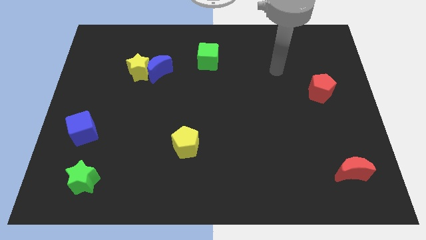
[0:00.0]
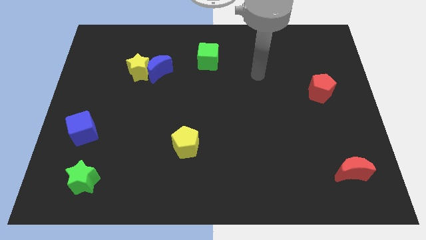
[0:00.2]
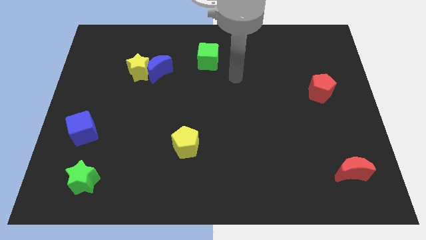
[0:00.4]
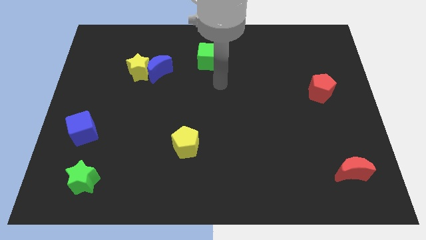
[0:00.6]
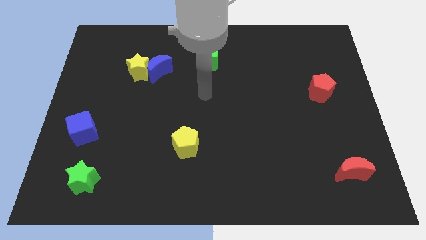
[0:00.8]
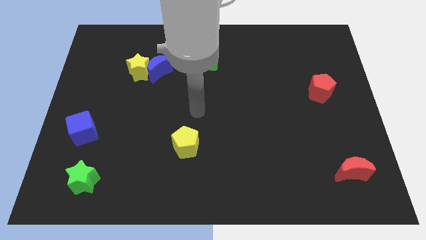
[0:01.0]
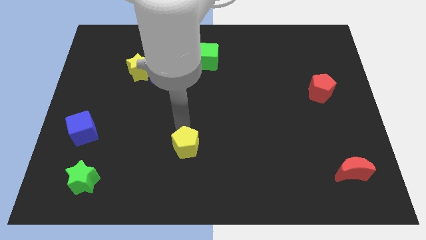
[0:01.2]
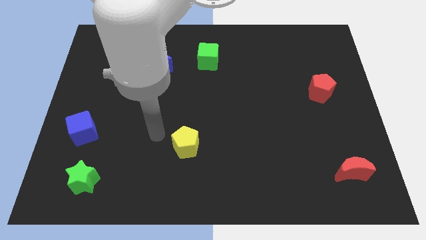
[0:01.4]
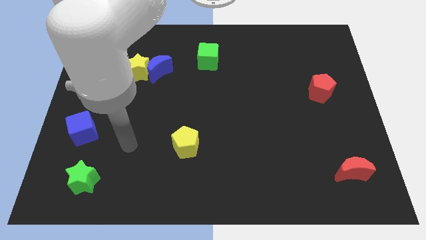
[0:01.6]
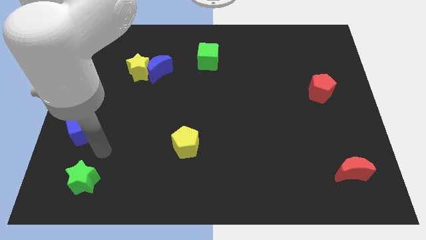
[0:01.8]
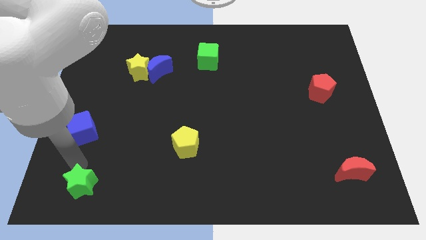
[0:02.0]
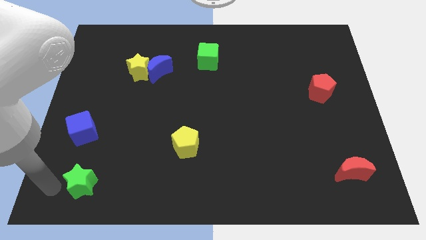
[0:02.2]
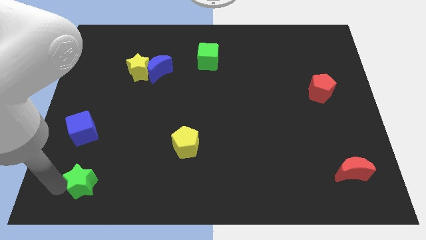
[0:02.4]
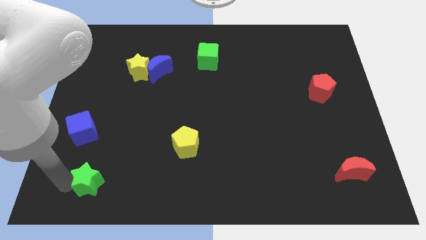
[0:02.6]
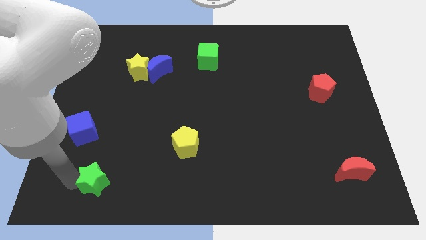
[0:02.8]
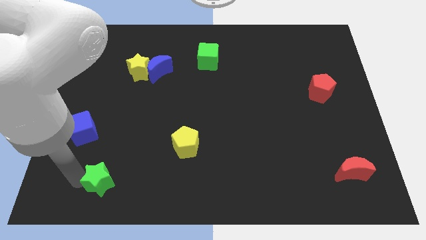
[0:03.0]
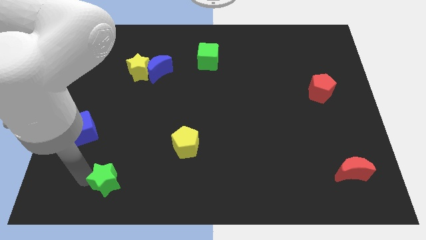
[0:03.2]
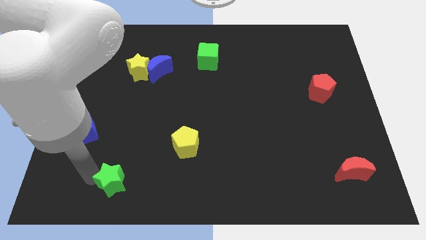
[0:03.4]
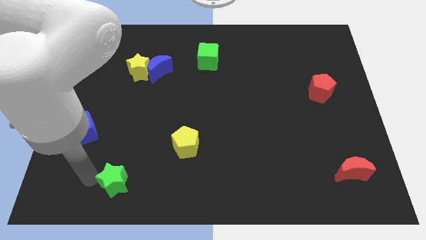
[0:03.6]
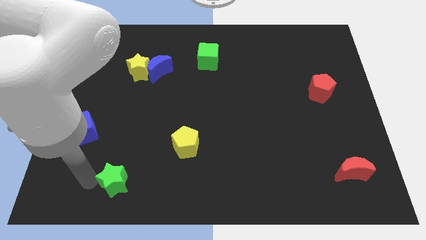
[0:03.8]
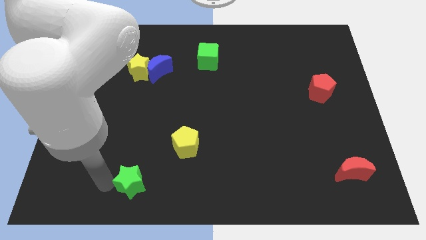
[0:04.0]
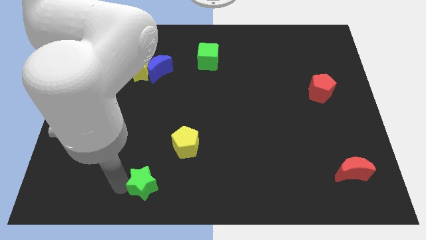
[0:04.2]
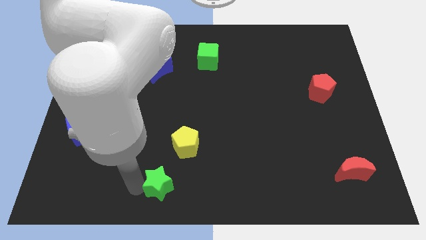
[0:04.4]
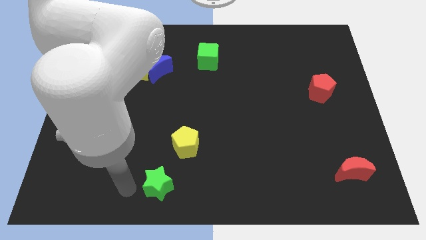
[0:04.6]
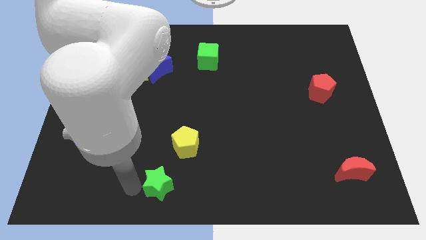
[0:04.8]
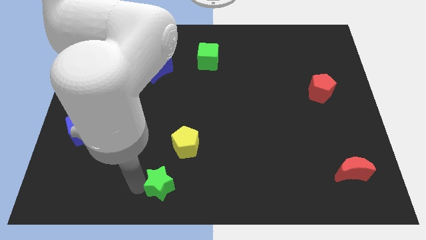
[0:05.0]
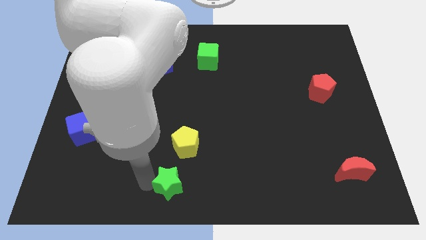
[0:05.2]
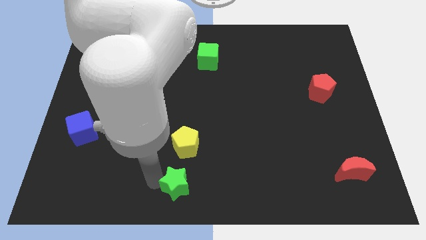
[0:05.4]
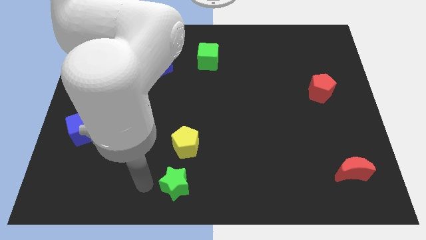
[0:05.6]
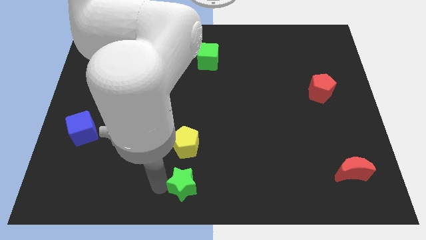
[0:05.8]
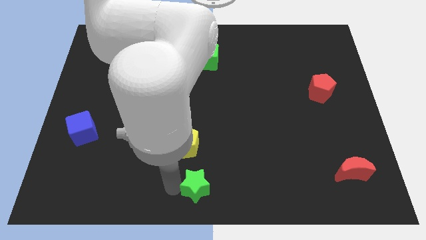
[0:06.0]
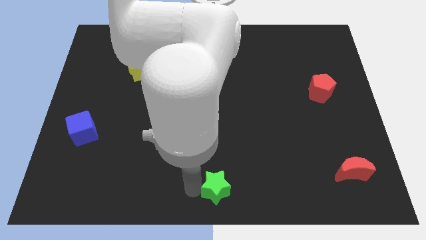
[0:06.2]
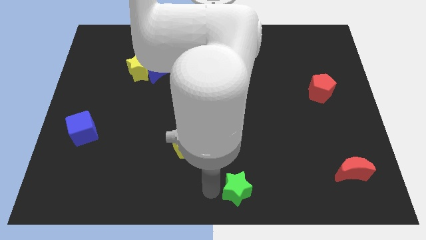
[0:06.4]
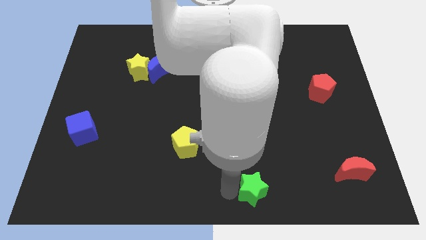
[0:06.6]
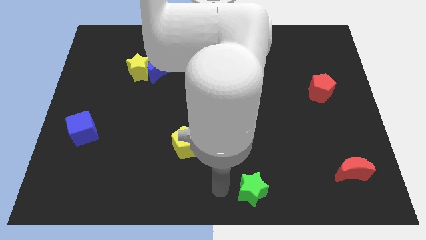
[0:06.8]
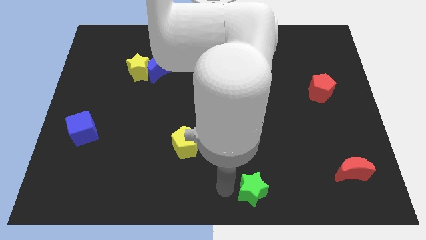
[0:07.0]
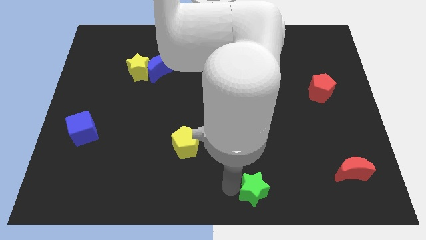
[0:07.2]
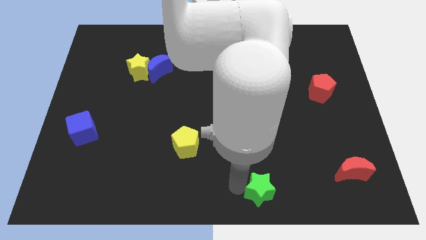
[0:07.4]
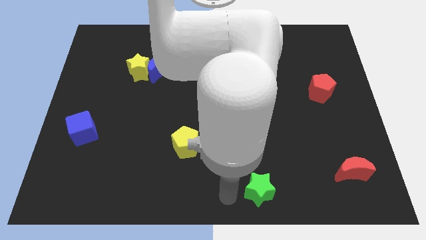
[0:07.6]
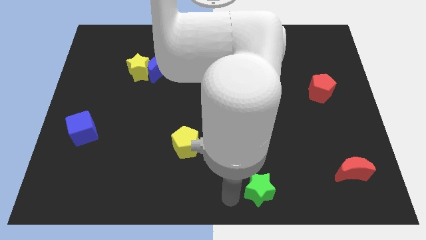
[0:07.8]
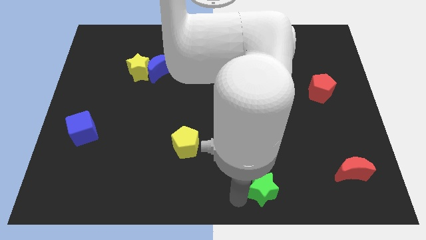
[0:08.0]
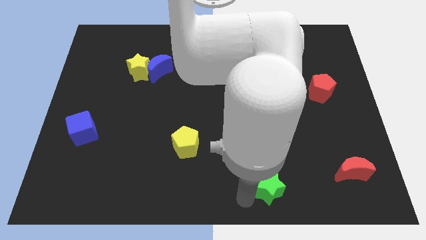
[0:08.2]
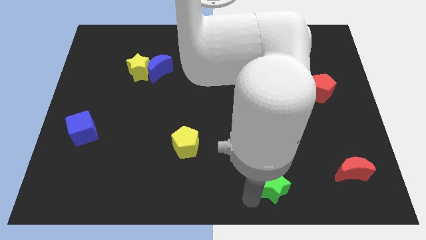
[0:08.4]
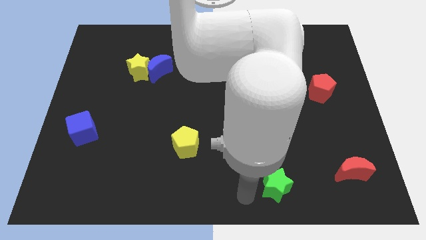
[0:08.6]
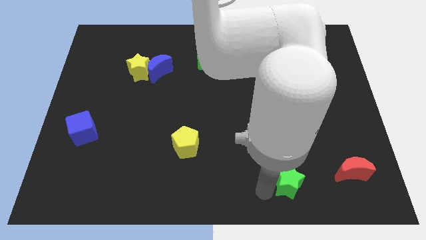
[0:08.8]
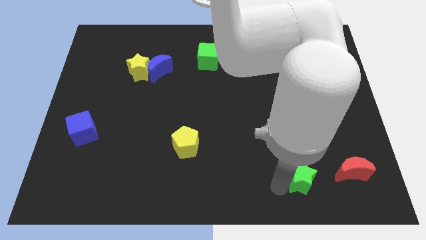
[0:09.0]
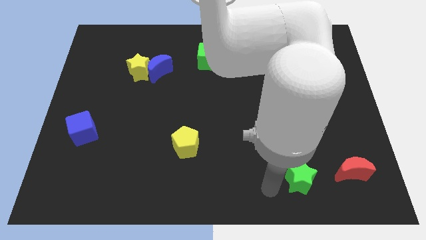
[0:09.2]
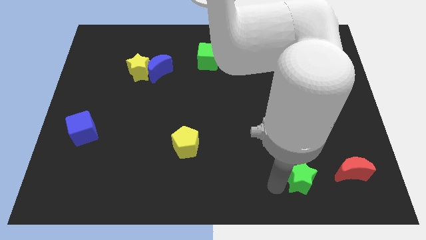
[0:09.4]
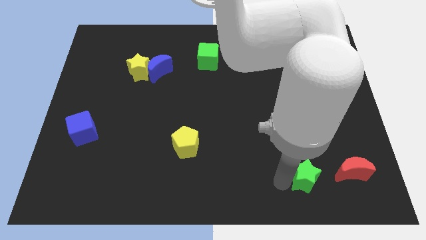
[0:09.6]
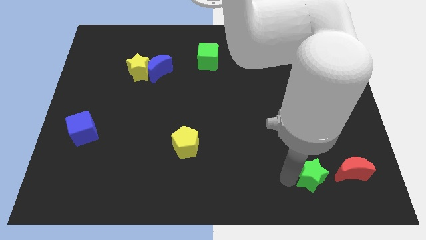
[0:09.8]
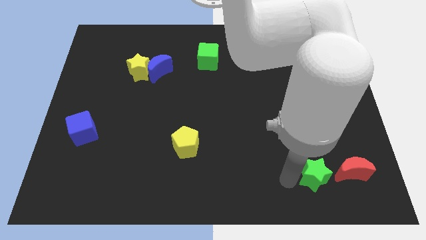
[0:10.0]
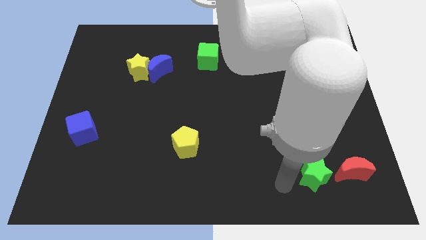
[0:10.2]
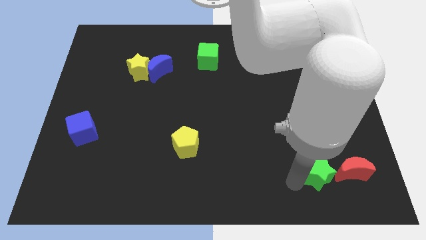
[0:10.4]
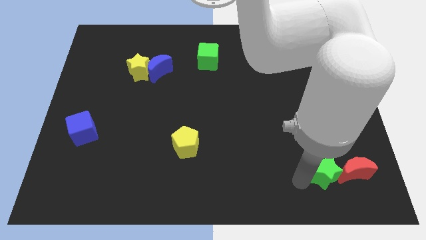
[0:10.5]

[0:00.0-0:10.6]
move the green star towards the red moon

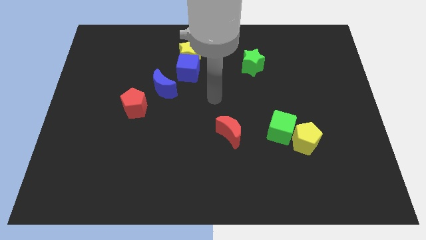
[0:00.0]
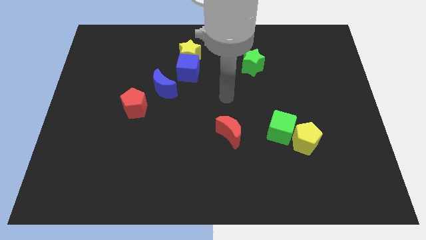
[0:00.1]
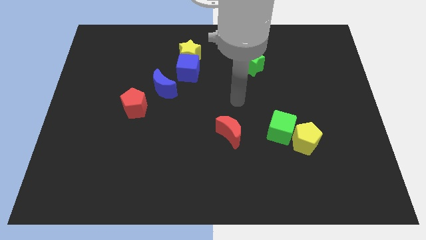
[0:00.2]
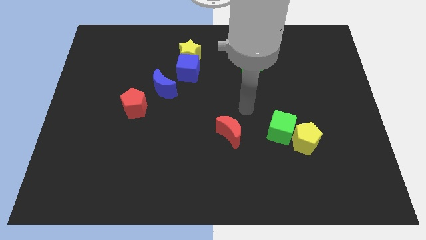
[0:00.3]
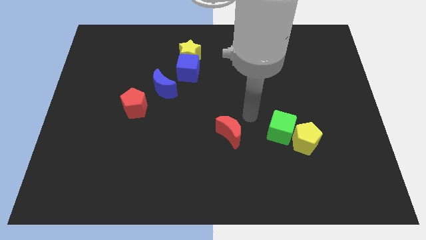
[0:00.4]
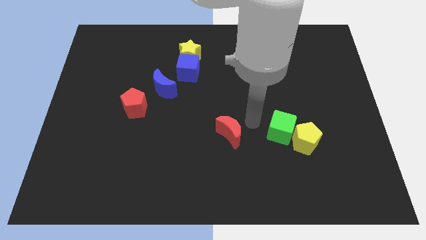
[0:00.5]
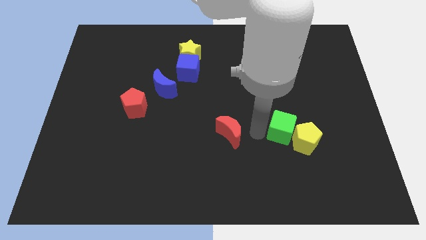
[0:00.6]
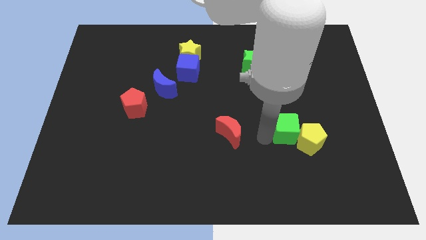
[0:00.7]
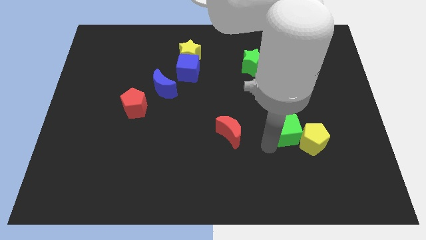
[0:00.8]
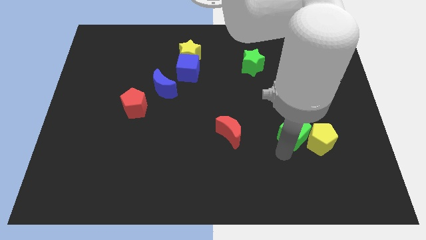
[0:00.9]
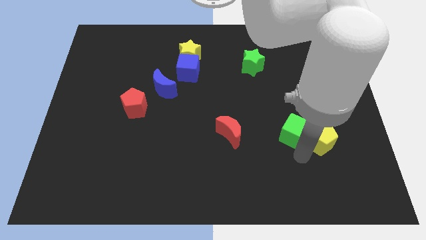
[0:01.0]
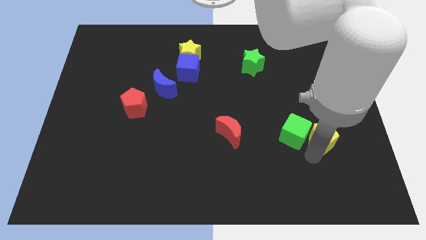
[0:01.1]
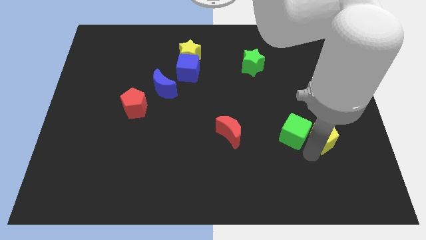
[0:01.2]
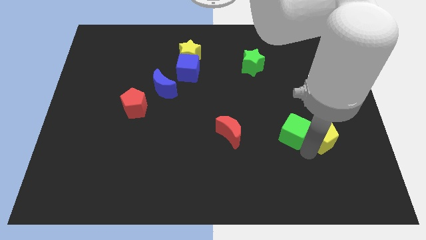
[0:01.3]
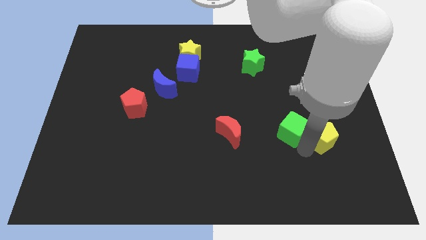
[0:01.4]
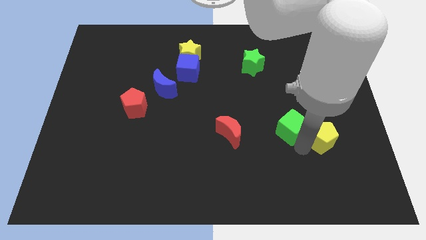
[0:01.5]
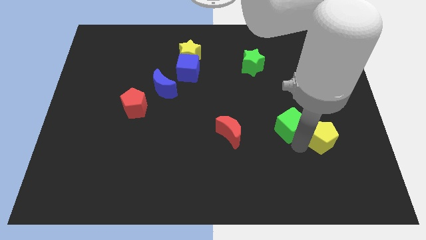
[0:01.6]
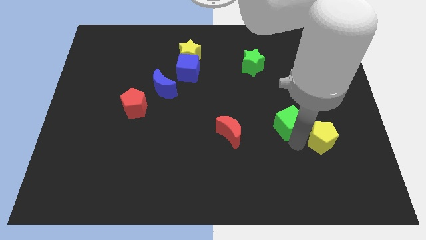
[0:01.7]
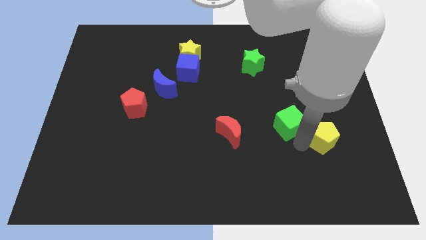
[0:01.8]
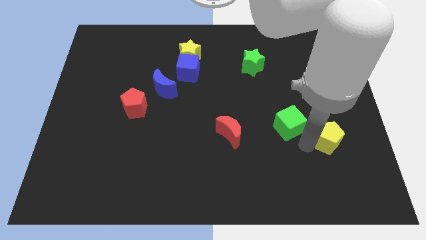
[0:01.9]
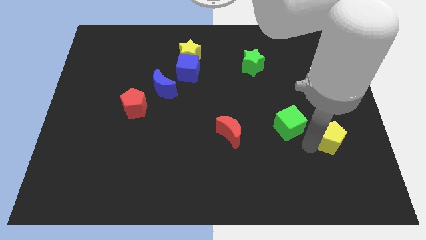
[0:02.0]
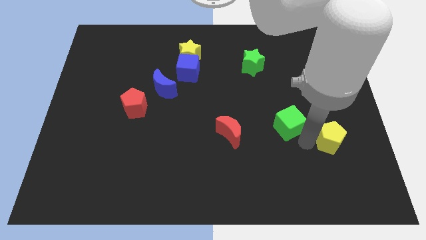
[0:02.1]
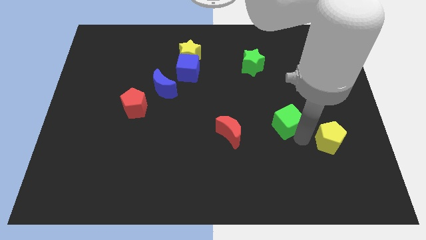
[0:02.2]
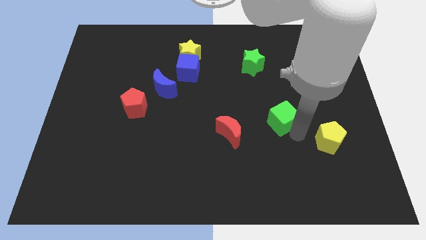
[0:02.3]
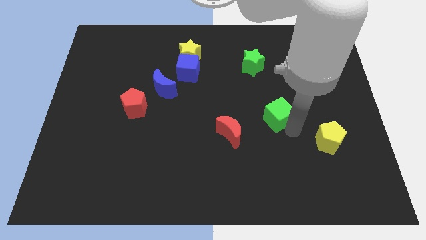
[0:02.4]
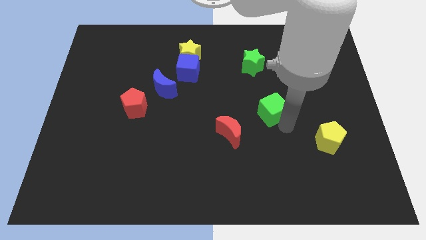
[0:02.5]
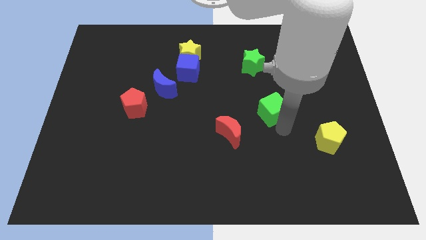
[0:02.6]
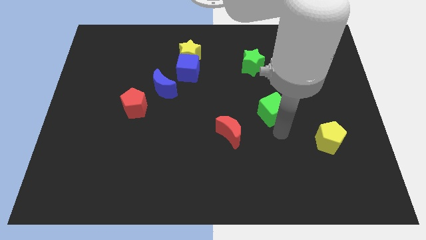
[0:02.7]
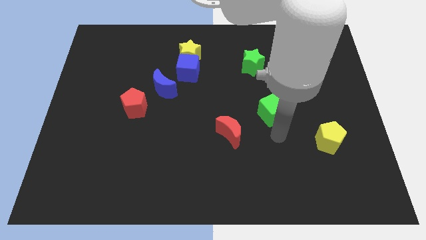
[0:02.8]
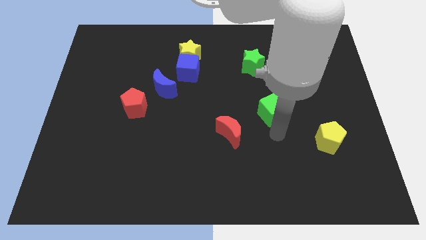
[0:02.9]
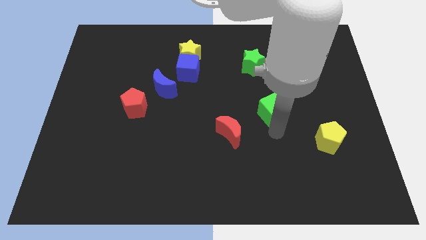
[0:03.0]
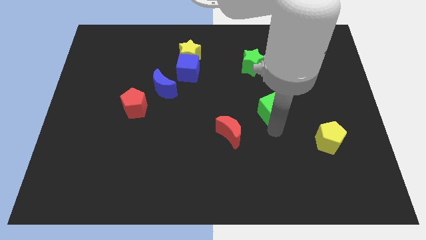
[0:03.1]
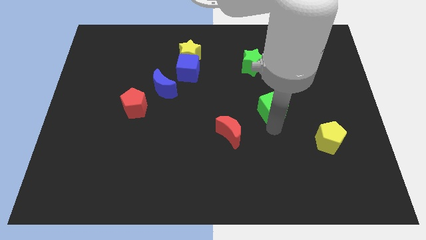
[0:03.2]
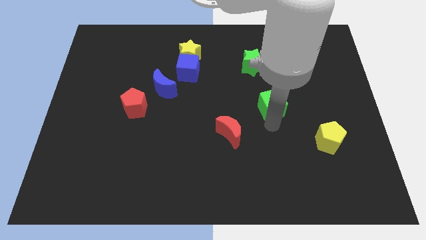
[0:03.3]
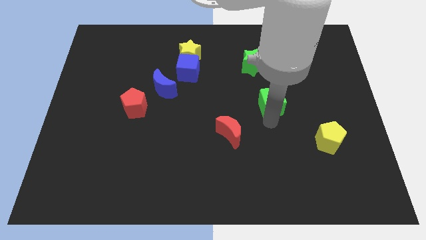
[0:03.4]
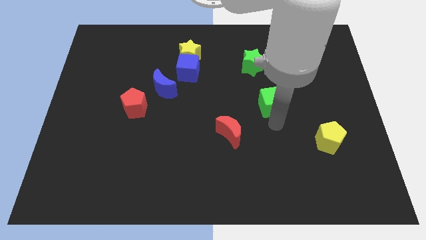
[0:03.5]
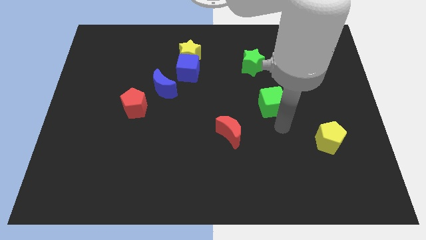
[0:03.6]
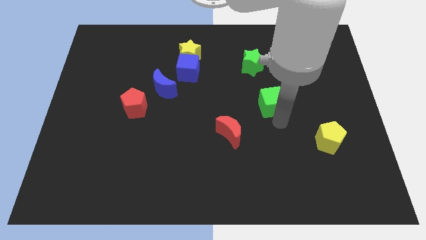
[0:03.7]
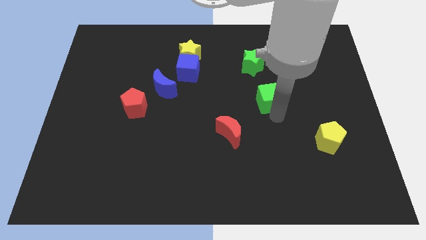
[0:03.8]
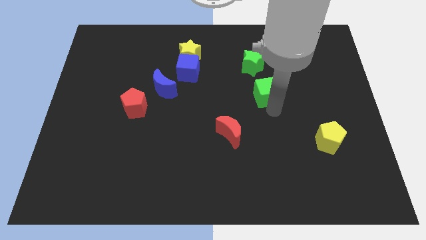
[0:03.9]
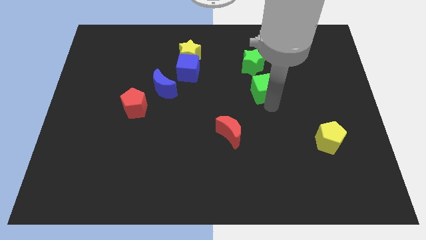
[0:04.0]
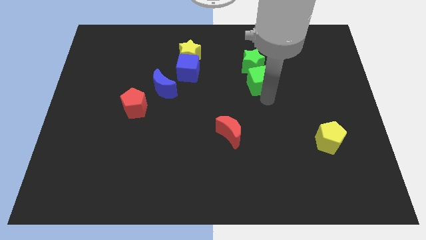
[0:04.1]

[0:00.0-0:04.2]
move the green cube close to the green star
